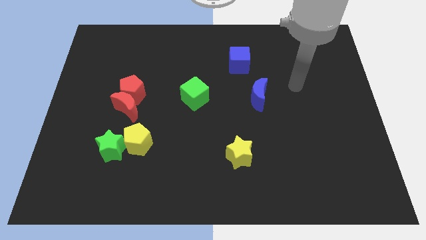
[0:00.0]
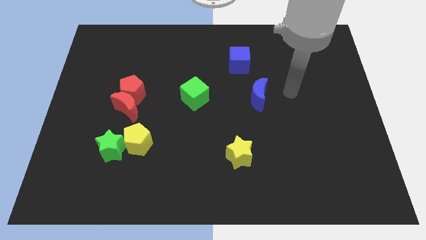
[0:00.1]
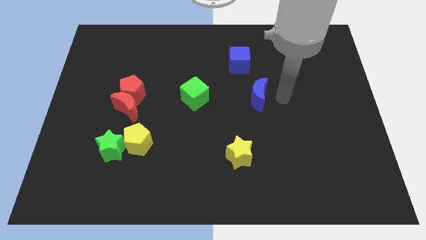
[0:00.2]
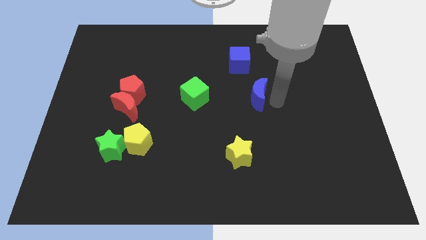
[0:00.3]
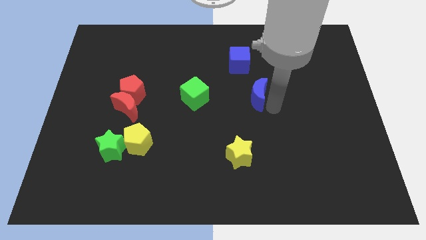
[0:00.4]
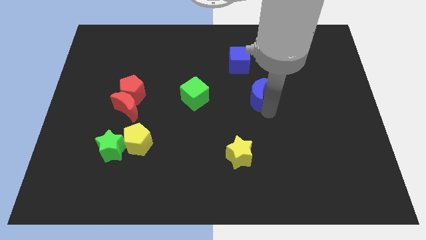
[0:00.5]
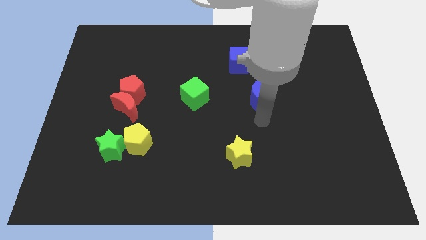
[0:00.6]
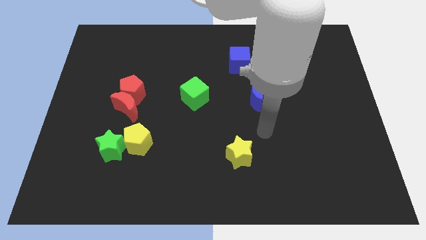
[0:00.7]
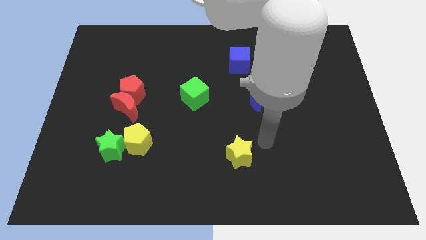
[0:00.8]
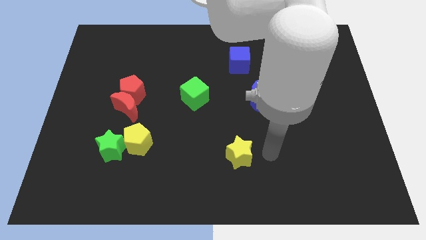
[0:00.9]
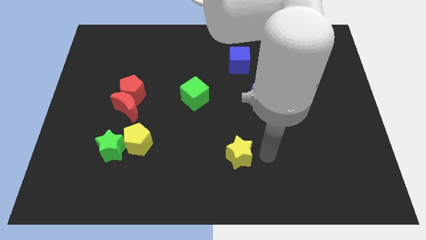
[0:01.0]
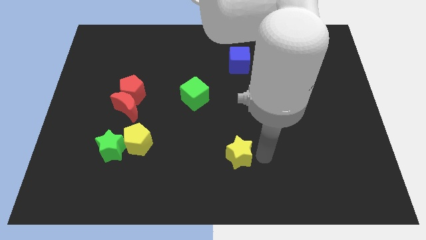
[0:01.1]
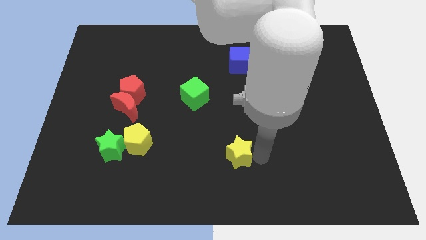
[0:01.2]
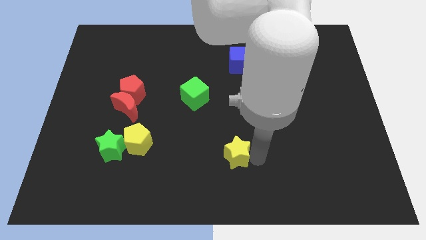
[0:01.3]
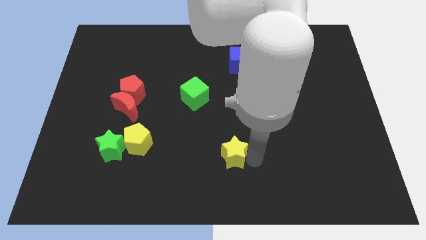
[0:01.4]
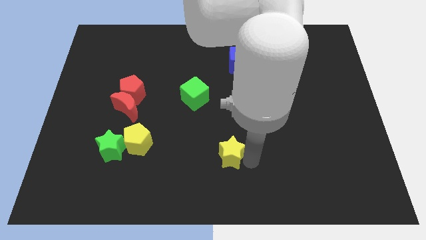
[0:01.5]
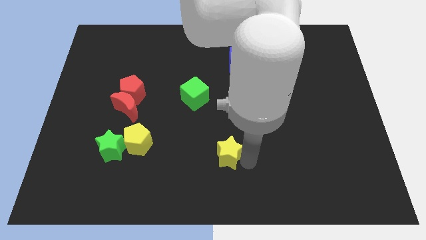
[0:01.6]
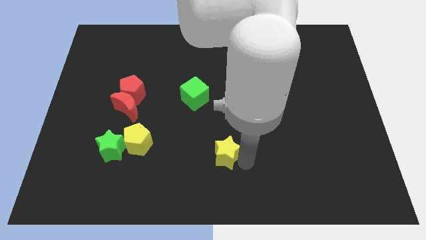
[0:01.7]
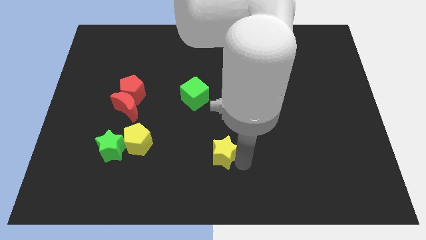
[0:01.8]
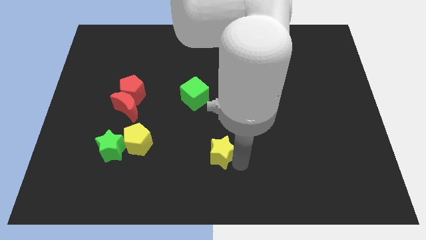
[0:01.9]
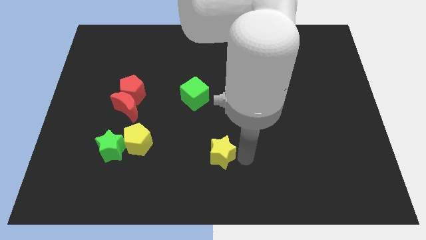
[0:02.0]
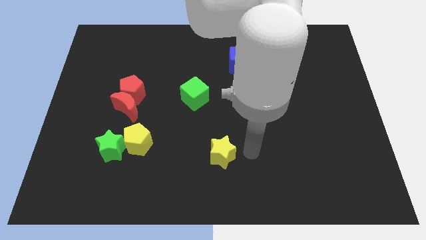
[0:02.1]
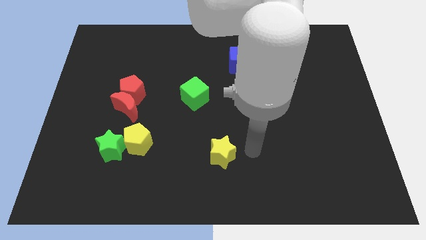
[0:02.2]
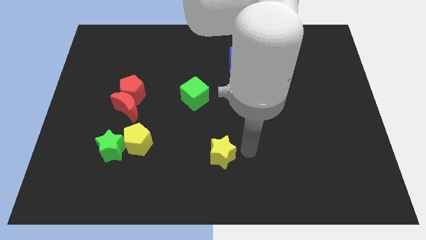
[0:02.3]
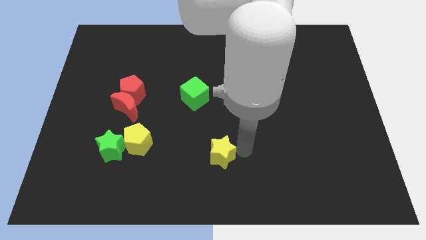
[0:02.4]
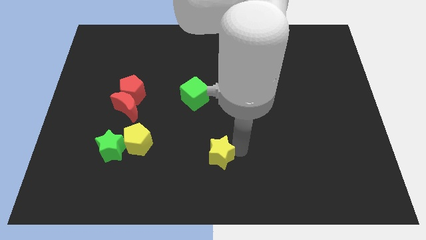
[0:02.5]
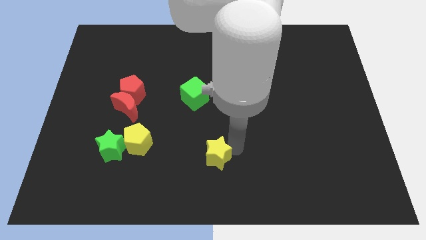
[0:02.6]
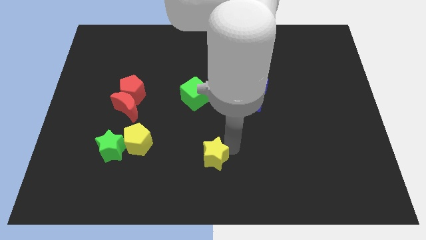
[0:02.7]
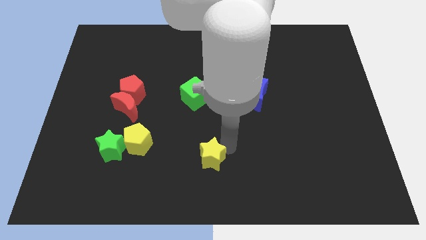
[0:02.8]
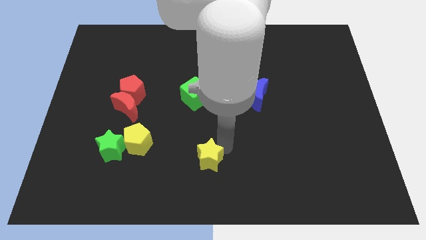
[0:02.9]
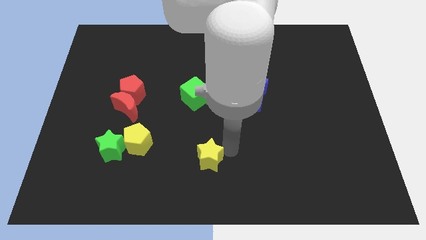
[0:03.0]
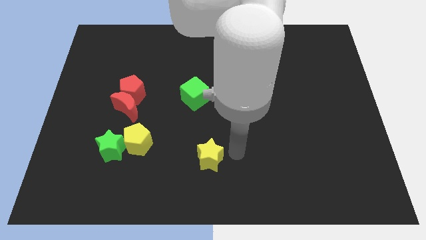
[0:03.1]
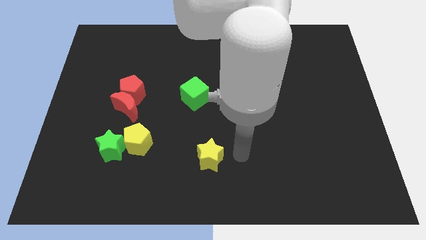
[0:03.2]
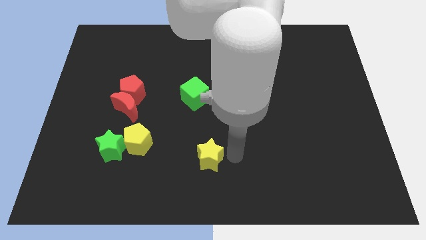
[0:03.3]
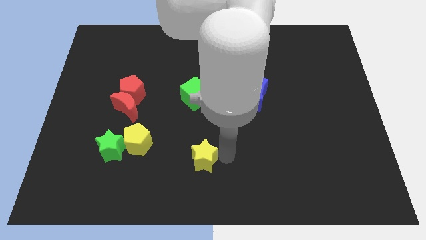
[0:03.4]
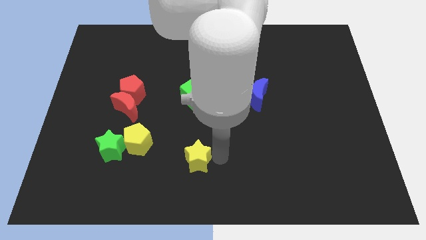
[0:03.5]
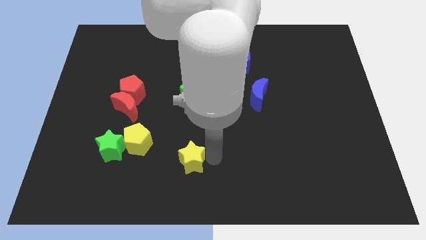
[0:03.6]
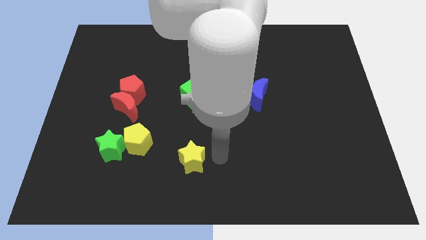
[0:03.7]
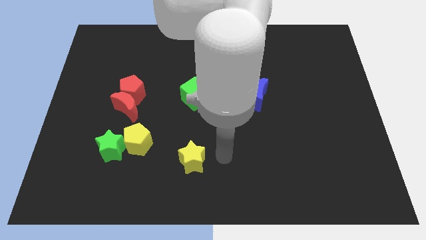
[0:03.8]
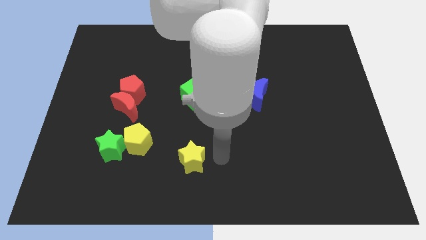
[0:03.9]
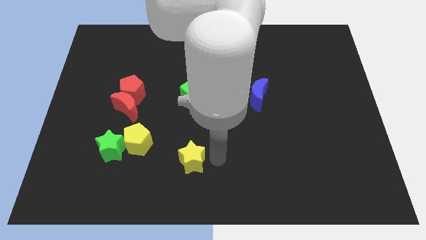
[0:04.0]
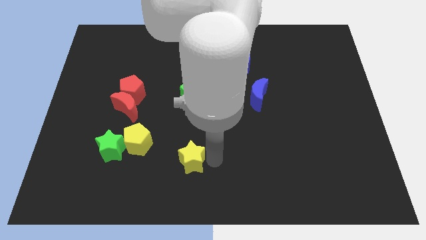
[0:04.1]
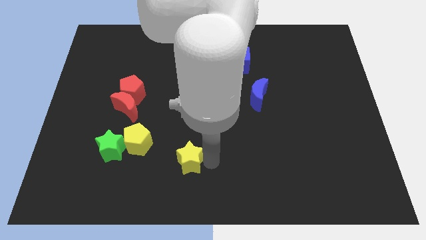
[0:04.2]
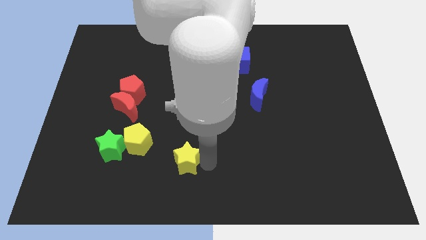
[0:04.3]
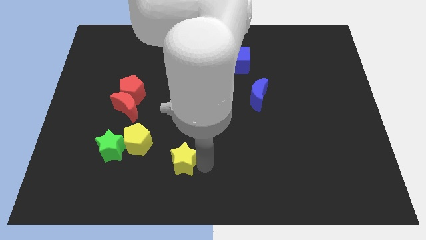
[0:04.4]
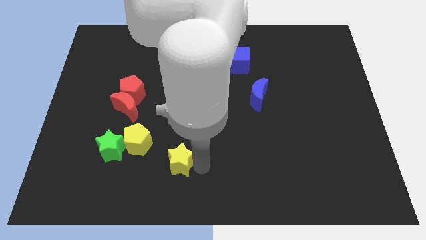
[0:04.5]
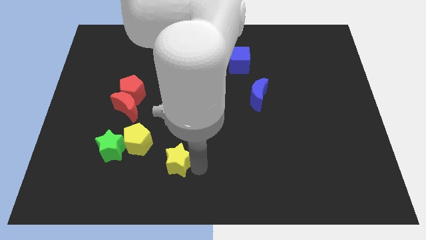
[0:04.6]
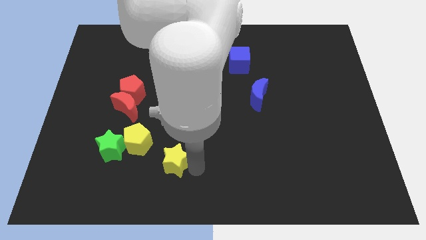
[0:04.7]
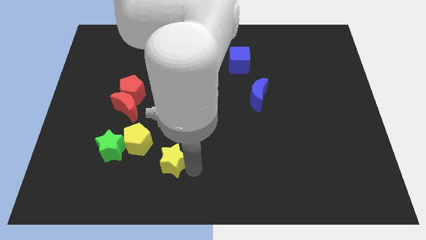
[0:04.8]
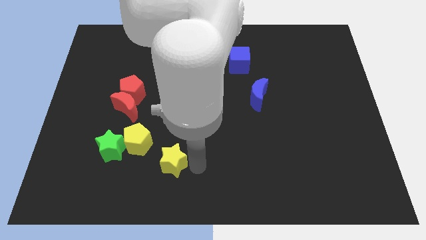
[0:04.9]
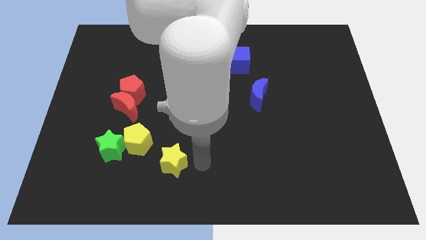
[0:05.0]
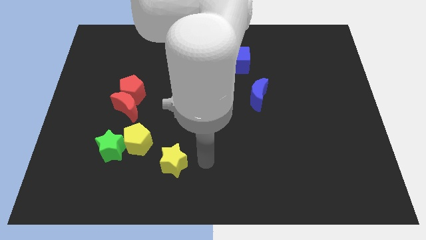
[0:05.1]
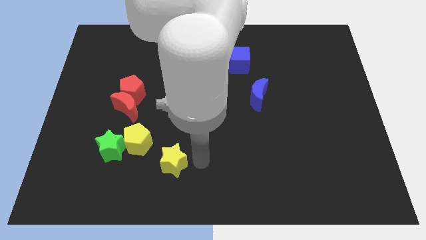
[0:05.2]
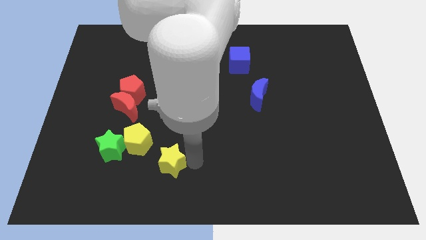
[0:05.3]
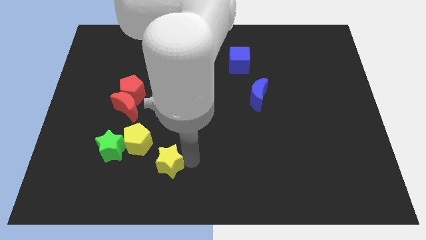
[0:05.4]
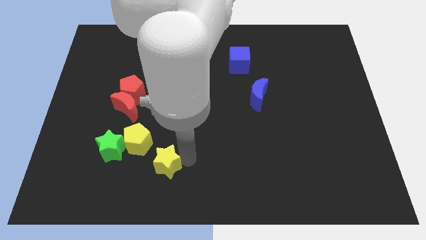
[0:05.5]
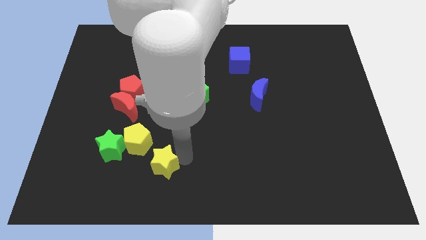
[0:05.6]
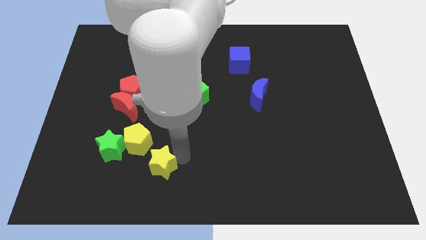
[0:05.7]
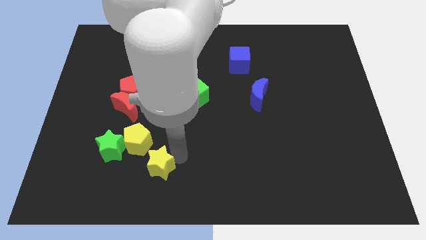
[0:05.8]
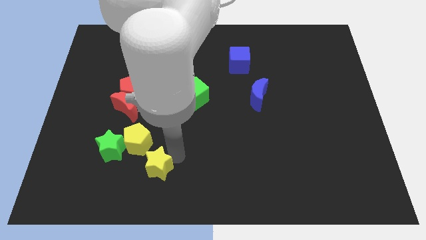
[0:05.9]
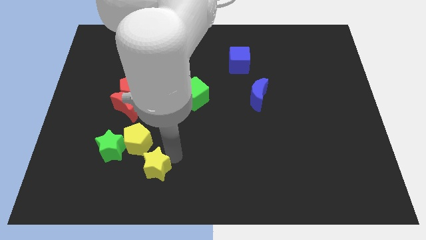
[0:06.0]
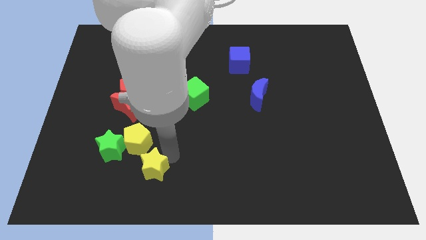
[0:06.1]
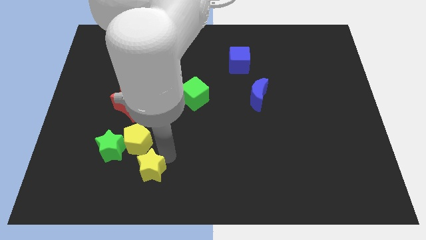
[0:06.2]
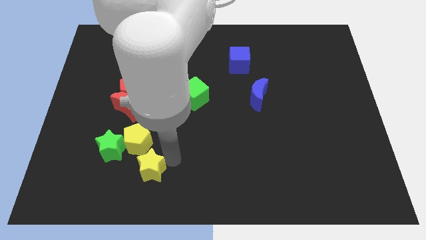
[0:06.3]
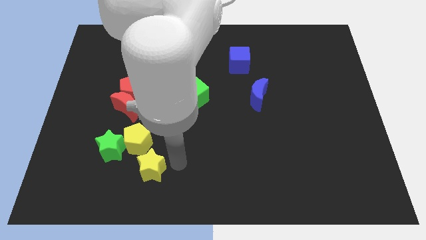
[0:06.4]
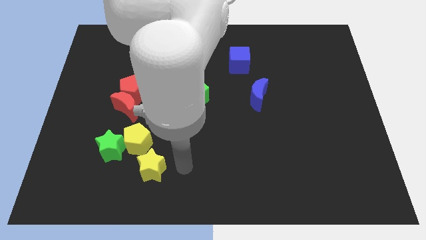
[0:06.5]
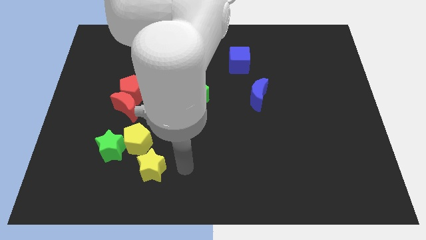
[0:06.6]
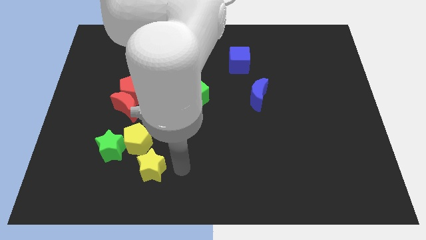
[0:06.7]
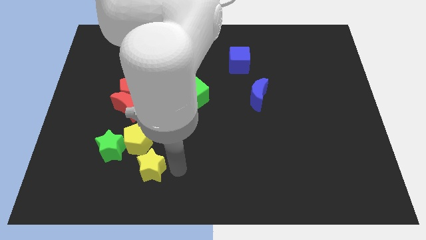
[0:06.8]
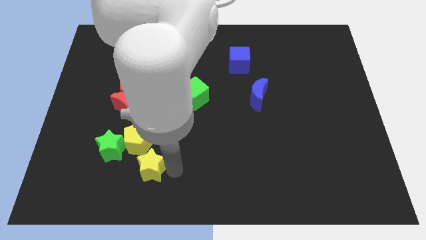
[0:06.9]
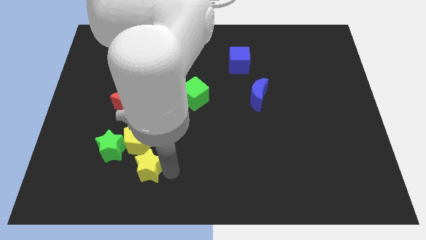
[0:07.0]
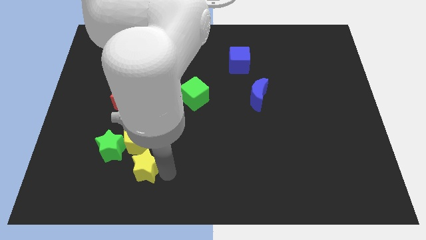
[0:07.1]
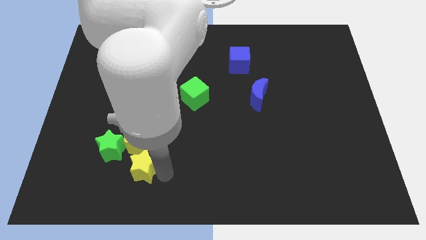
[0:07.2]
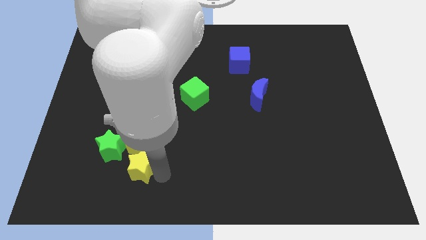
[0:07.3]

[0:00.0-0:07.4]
move the yellow star left

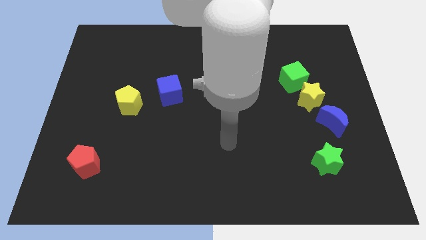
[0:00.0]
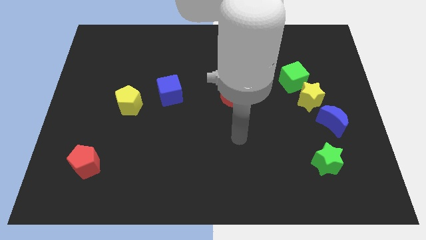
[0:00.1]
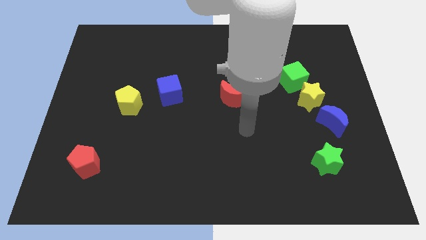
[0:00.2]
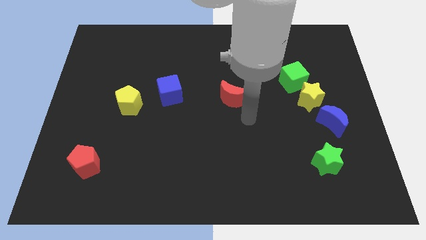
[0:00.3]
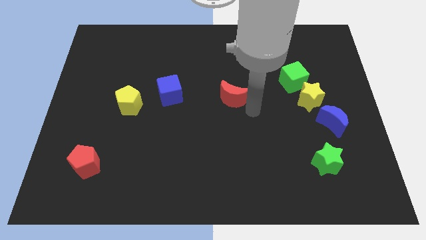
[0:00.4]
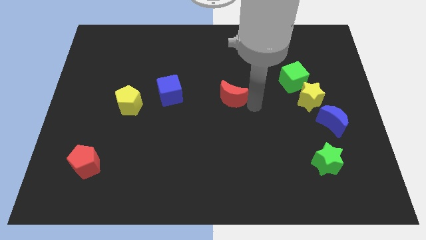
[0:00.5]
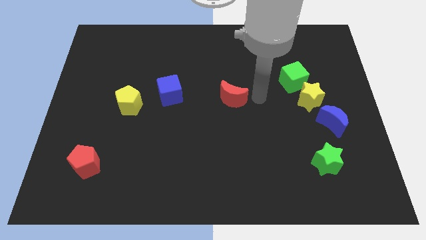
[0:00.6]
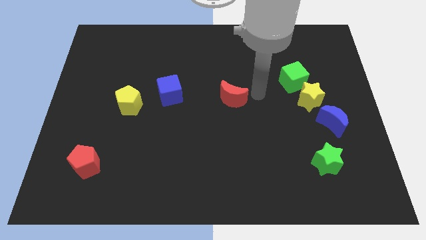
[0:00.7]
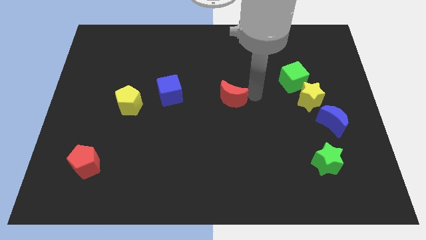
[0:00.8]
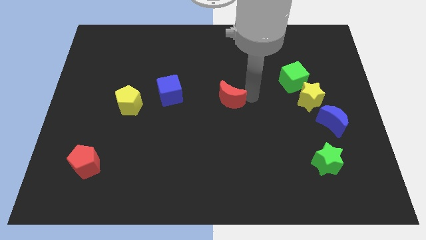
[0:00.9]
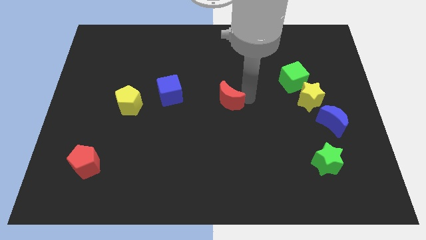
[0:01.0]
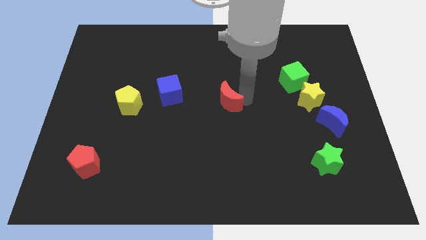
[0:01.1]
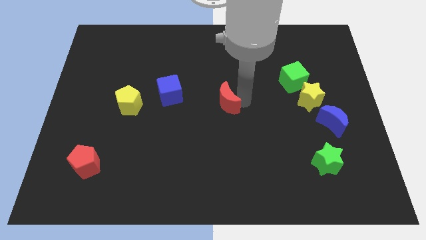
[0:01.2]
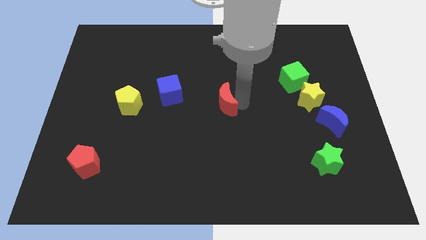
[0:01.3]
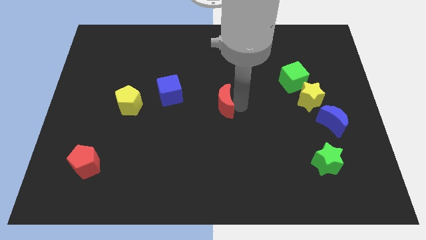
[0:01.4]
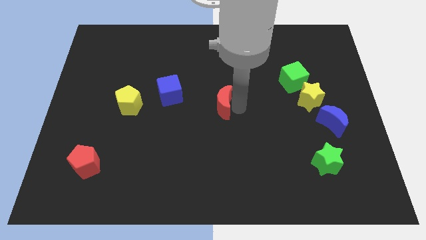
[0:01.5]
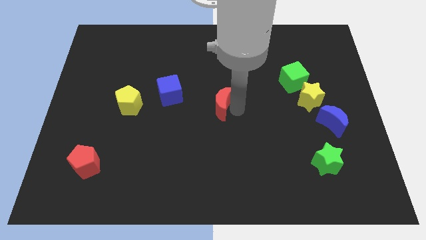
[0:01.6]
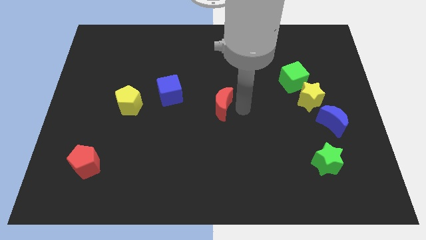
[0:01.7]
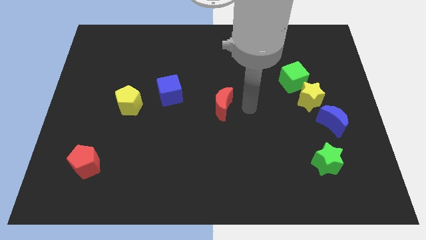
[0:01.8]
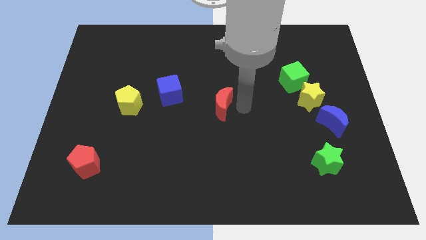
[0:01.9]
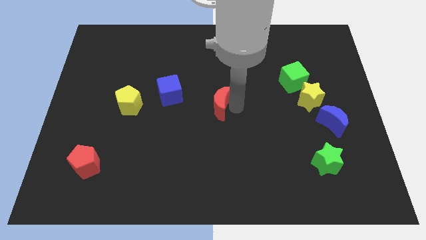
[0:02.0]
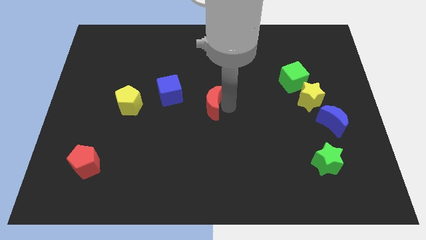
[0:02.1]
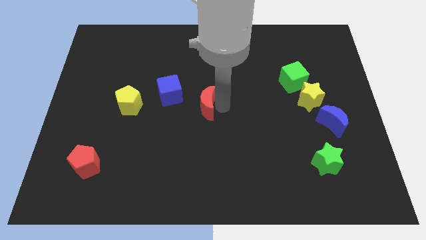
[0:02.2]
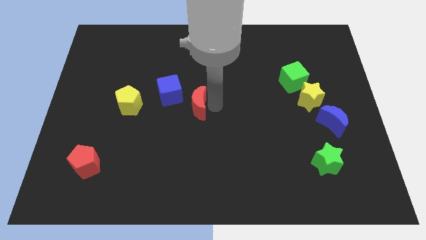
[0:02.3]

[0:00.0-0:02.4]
move the red moon to the left a bit
